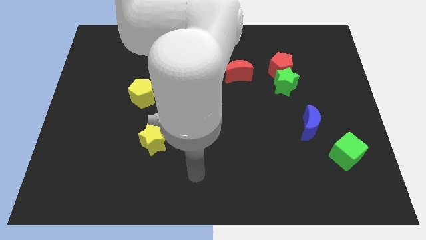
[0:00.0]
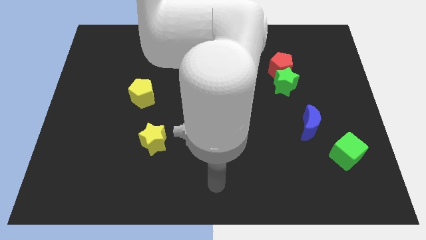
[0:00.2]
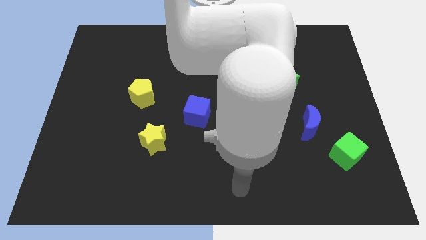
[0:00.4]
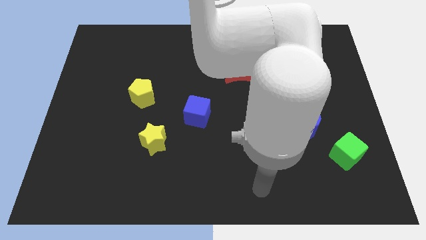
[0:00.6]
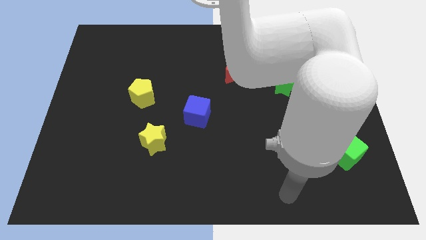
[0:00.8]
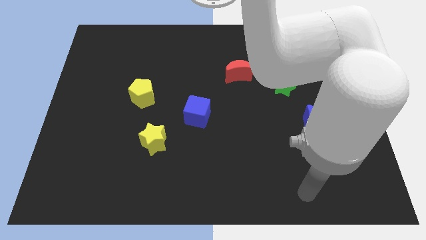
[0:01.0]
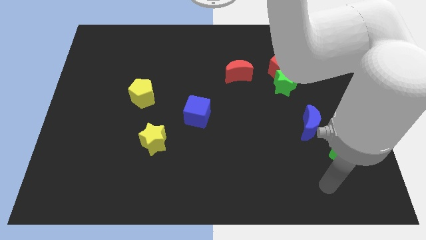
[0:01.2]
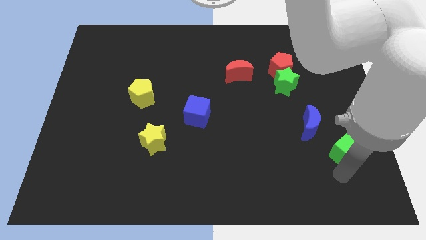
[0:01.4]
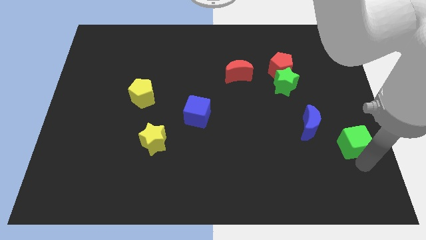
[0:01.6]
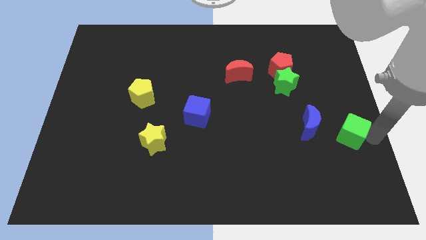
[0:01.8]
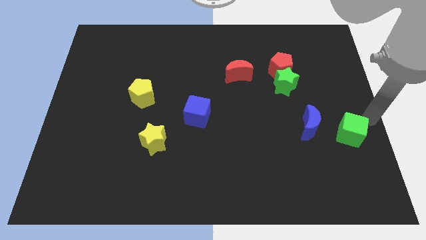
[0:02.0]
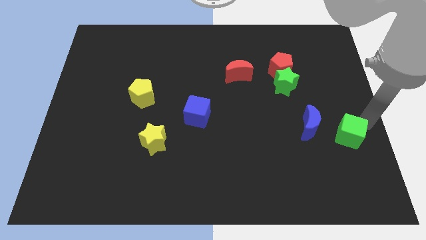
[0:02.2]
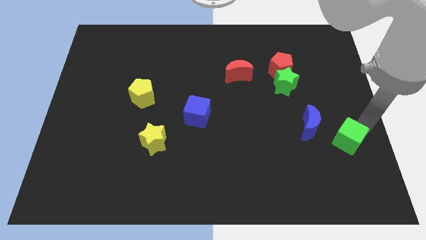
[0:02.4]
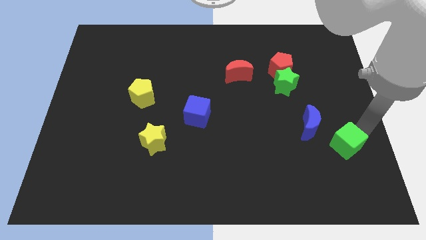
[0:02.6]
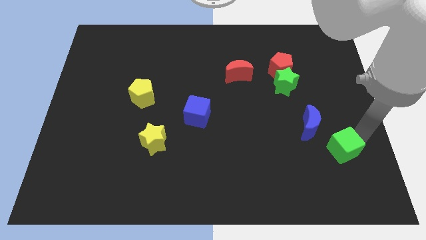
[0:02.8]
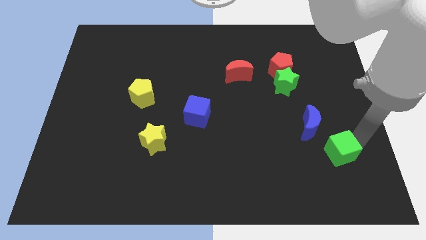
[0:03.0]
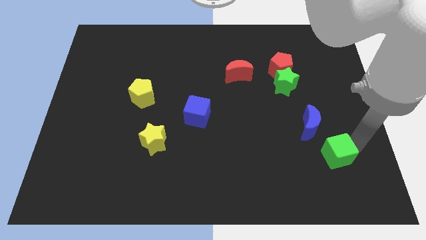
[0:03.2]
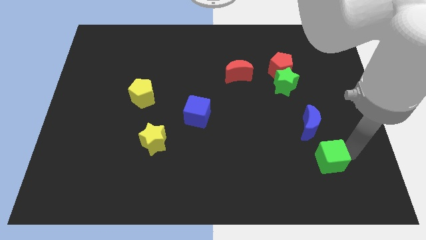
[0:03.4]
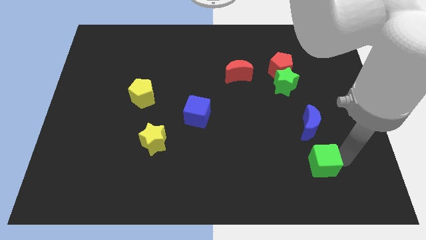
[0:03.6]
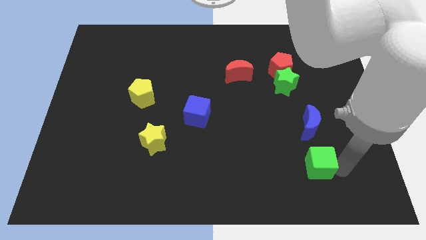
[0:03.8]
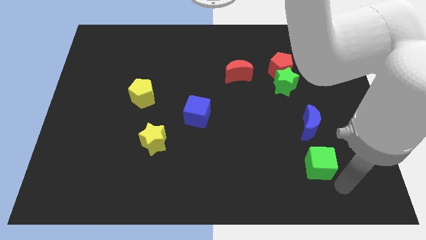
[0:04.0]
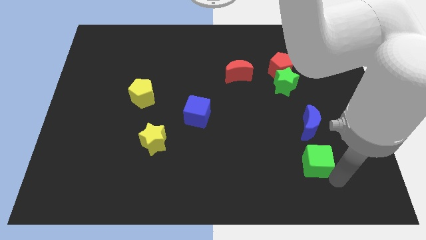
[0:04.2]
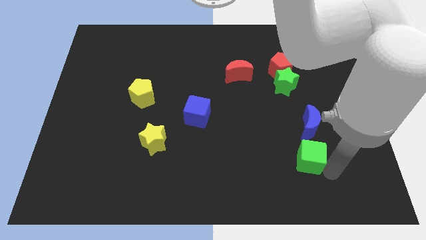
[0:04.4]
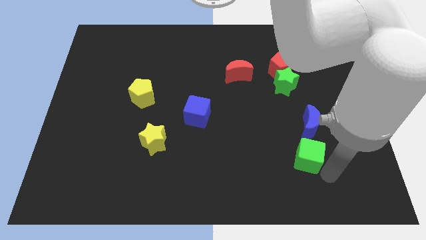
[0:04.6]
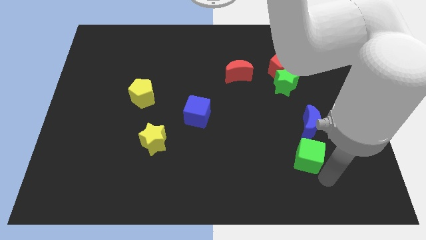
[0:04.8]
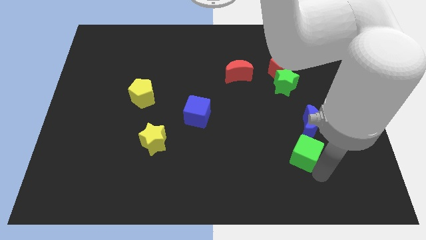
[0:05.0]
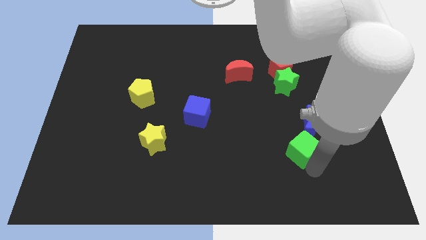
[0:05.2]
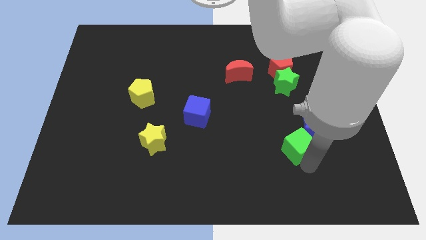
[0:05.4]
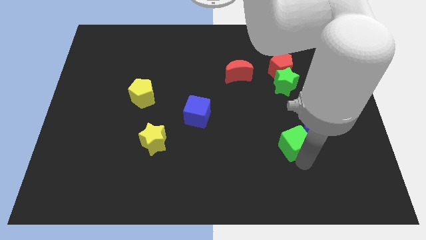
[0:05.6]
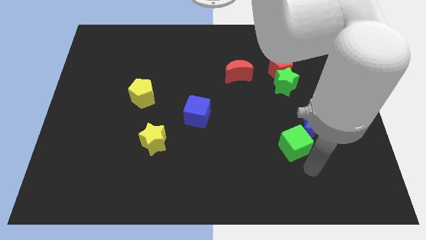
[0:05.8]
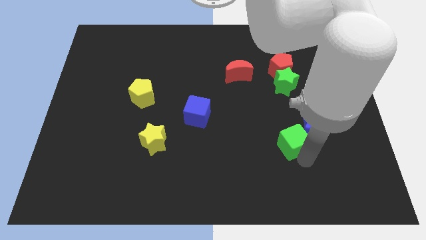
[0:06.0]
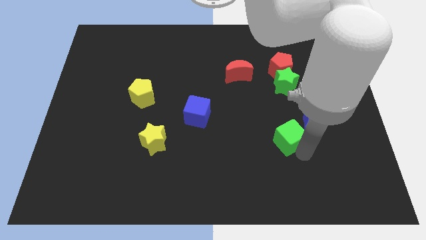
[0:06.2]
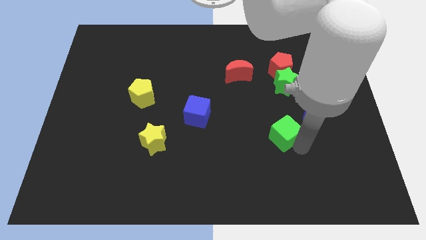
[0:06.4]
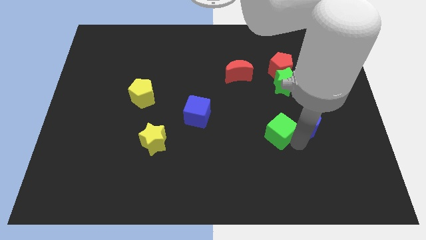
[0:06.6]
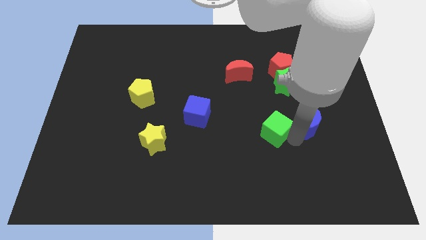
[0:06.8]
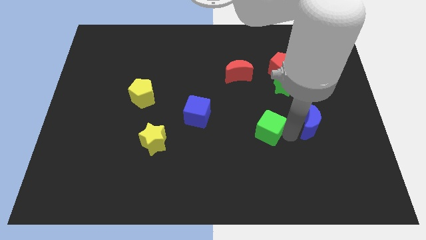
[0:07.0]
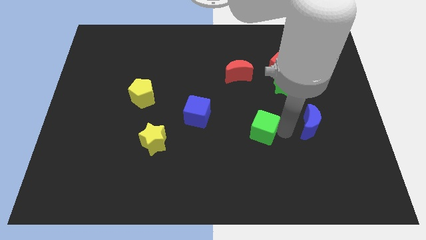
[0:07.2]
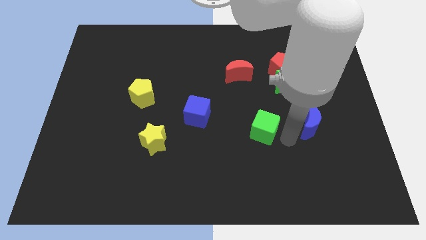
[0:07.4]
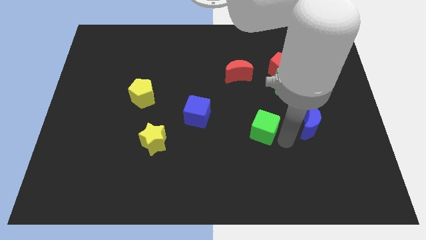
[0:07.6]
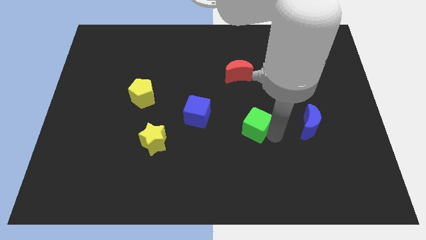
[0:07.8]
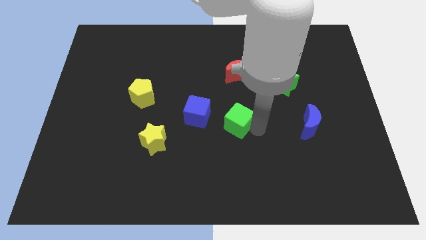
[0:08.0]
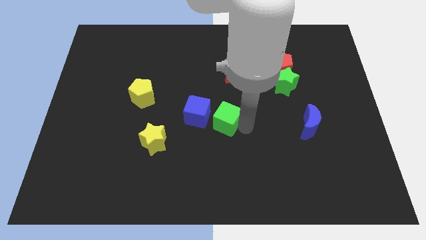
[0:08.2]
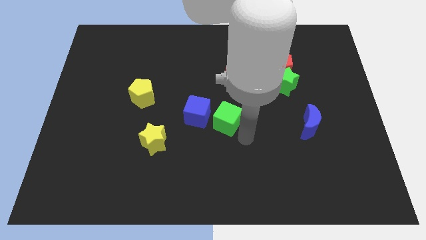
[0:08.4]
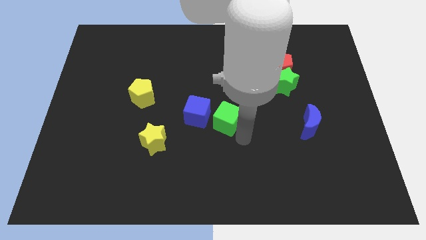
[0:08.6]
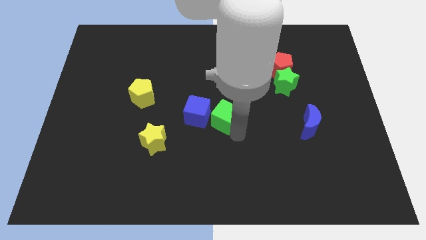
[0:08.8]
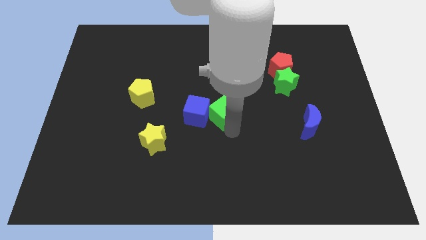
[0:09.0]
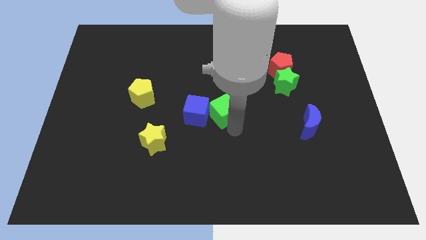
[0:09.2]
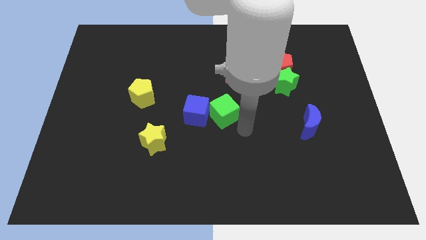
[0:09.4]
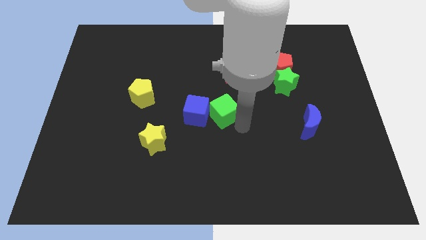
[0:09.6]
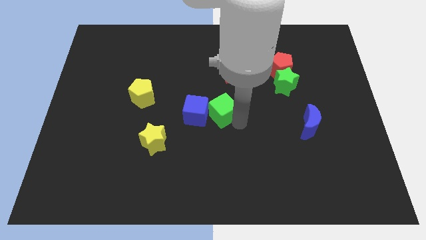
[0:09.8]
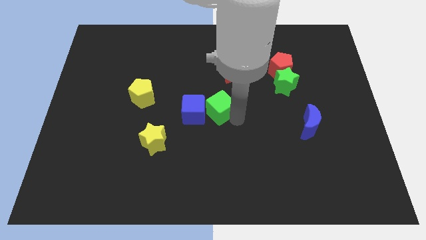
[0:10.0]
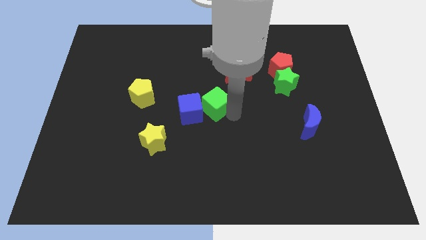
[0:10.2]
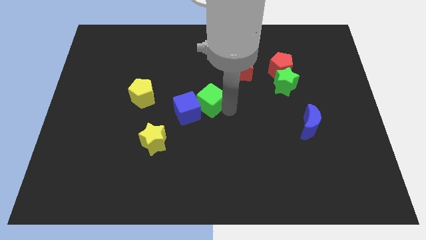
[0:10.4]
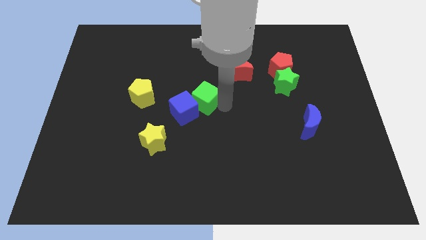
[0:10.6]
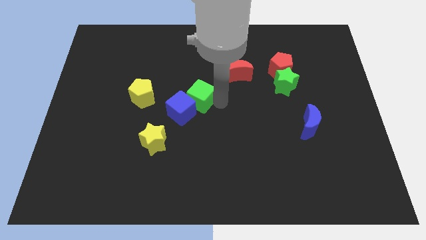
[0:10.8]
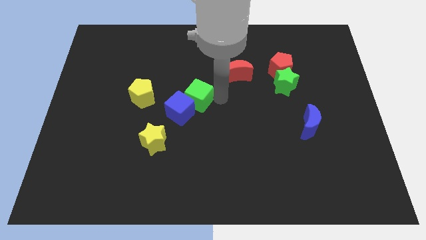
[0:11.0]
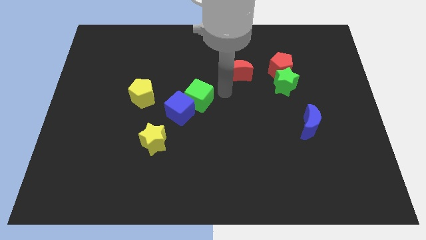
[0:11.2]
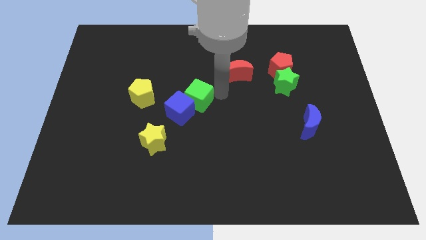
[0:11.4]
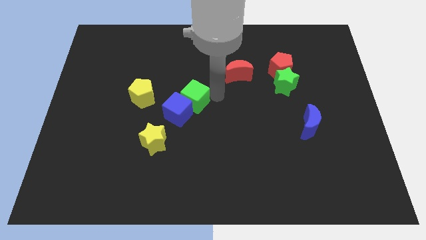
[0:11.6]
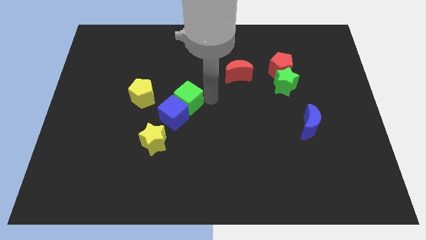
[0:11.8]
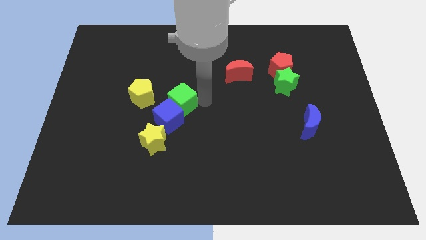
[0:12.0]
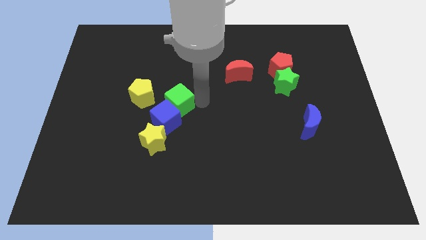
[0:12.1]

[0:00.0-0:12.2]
push the green cube above the yellow star

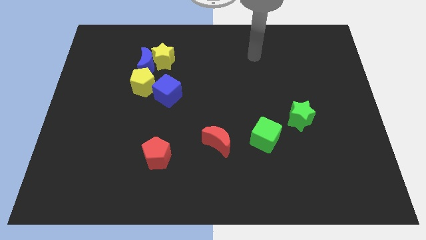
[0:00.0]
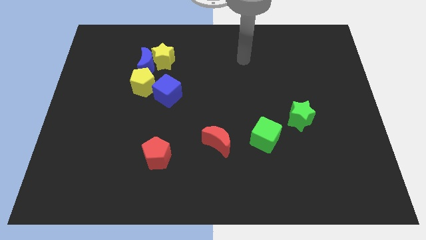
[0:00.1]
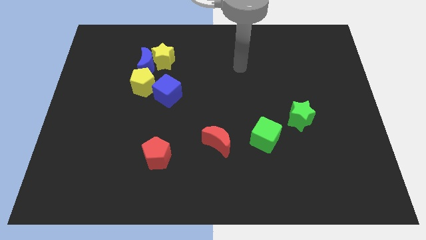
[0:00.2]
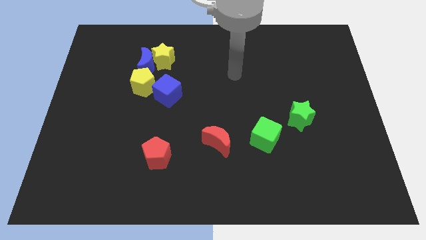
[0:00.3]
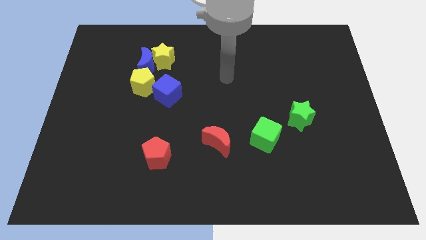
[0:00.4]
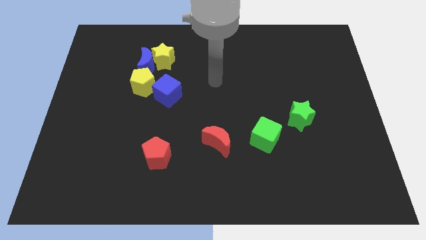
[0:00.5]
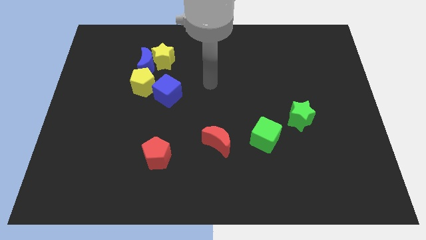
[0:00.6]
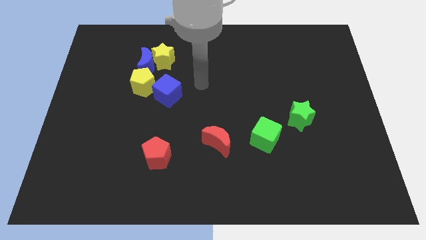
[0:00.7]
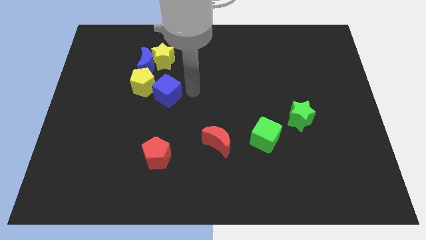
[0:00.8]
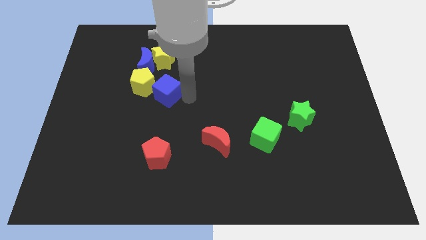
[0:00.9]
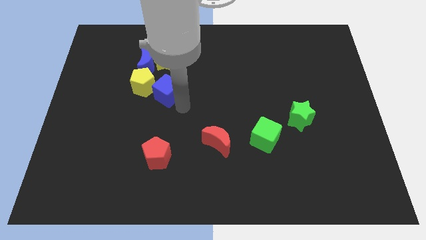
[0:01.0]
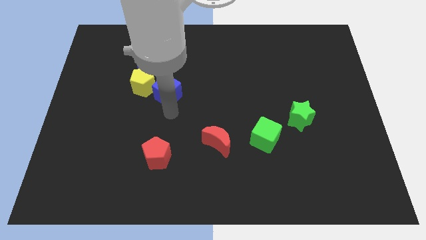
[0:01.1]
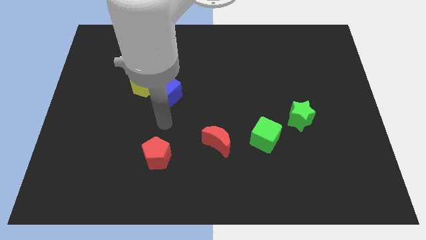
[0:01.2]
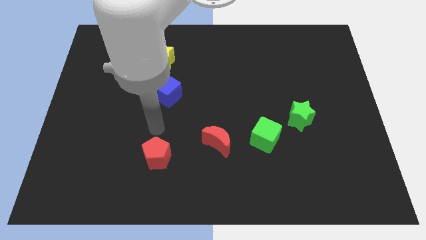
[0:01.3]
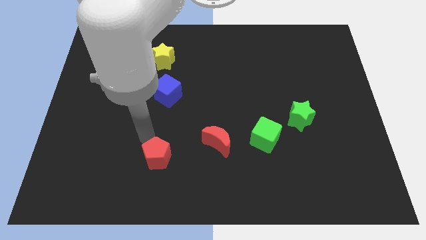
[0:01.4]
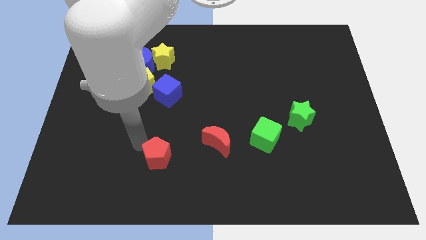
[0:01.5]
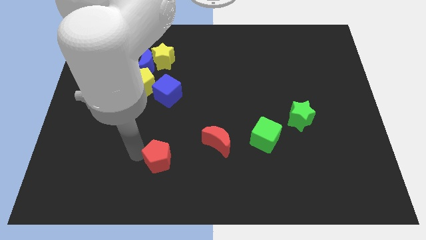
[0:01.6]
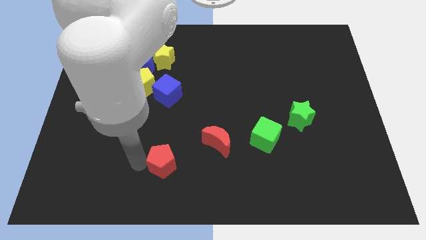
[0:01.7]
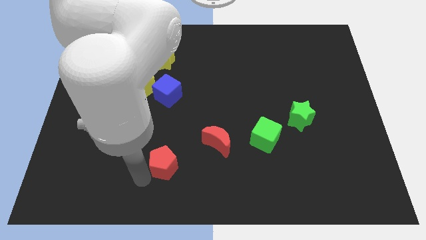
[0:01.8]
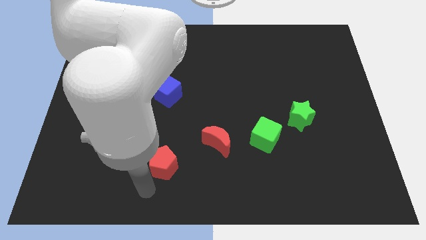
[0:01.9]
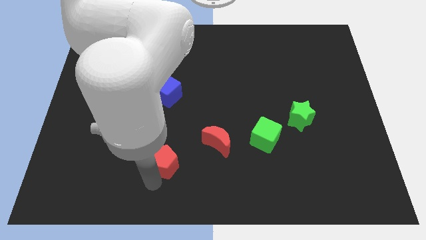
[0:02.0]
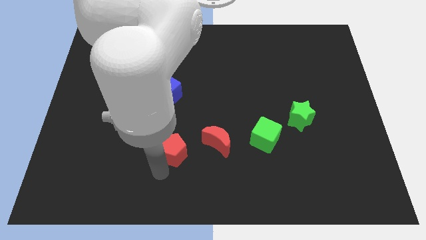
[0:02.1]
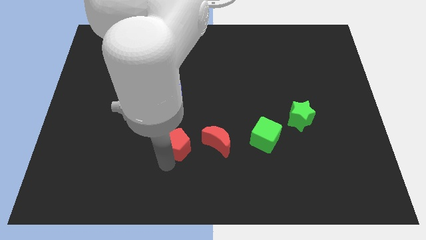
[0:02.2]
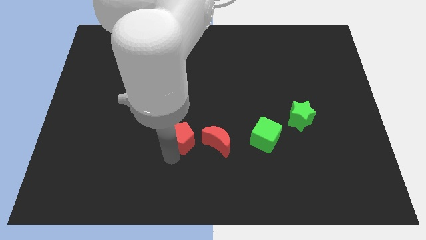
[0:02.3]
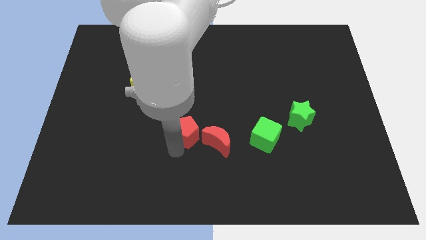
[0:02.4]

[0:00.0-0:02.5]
slide the red pentagon to the top left of the red moon
